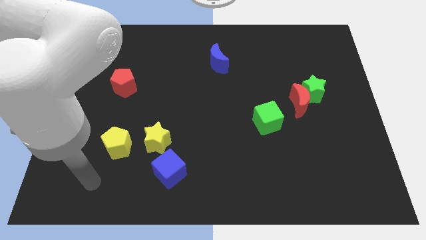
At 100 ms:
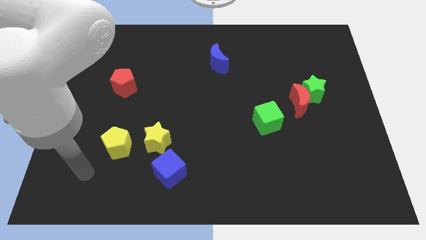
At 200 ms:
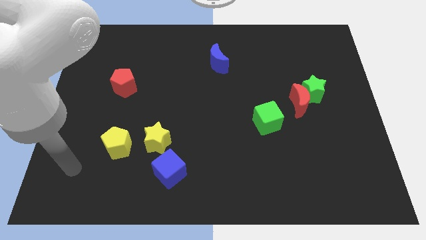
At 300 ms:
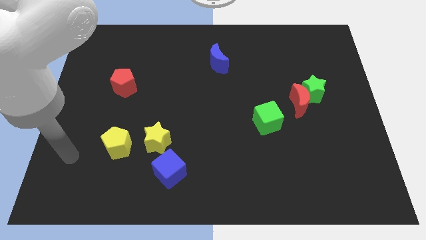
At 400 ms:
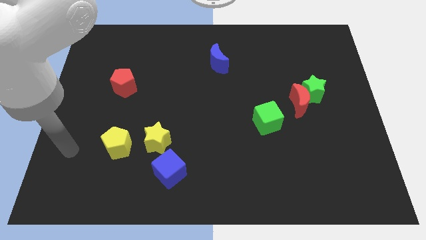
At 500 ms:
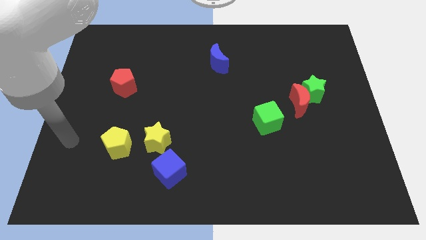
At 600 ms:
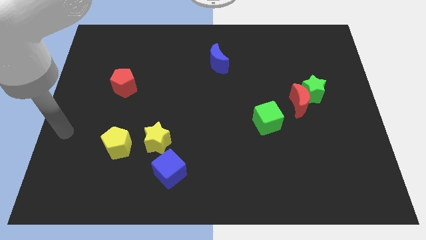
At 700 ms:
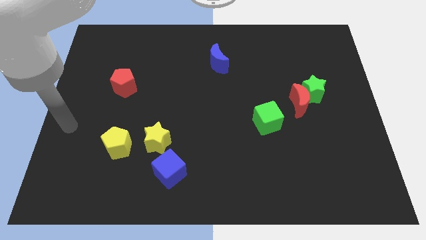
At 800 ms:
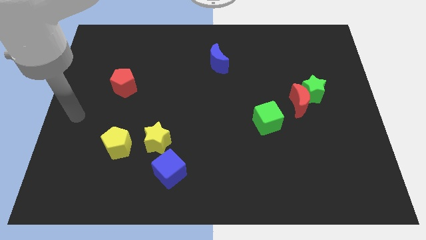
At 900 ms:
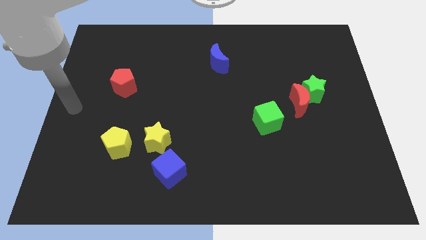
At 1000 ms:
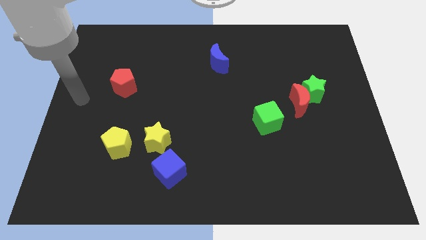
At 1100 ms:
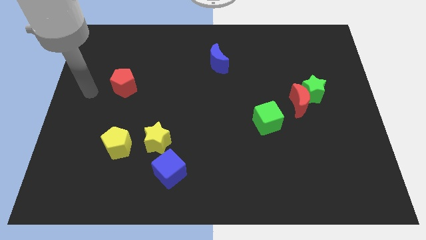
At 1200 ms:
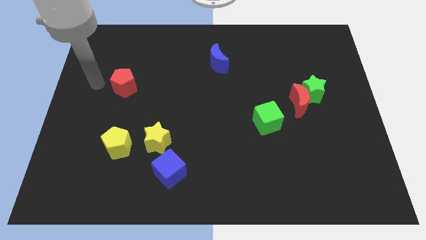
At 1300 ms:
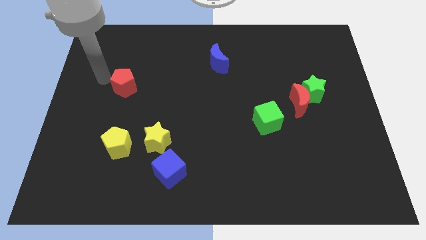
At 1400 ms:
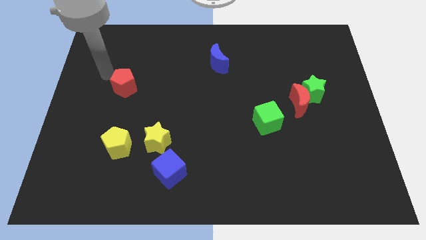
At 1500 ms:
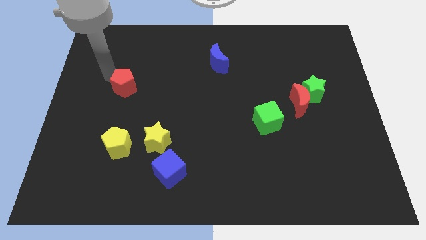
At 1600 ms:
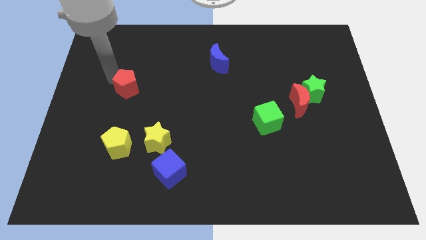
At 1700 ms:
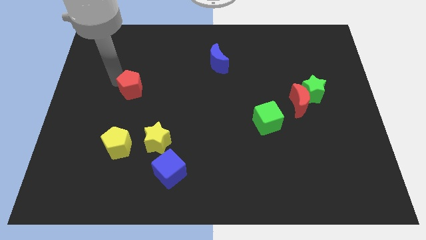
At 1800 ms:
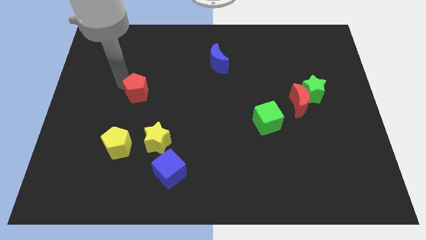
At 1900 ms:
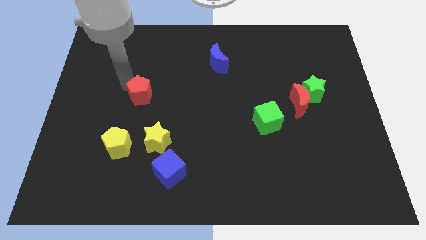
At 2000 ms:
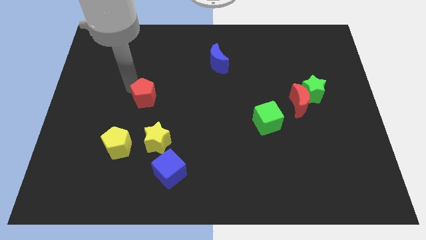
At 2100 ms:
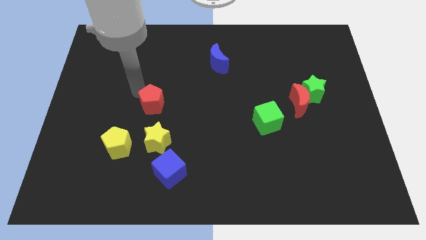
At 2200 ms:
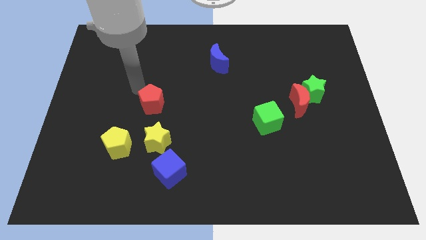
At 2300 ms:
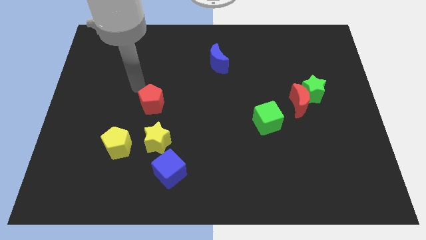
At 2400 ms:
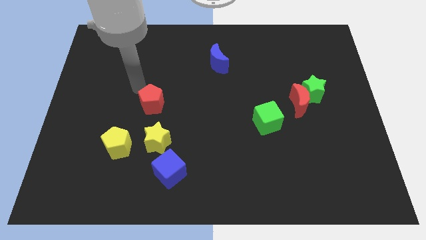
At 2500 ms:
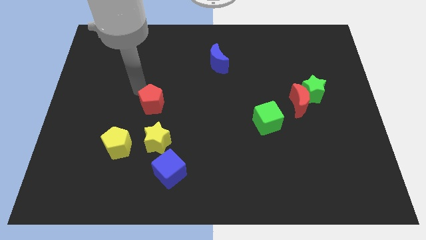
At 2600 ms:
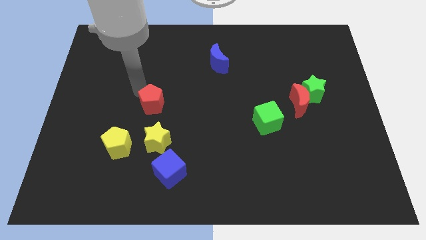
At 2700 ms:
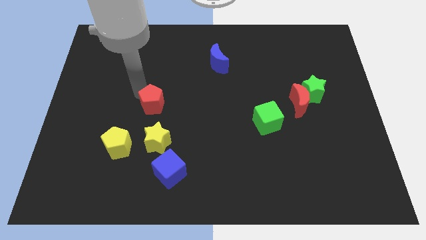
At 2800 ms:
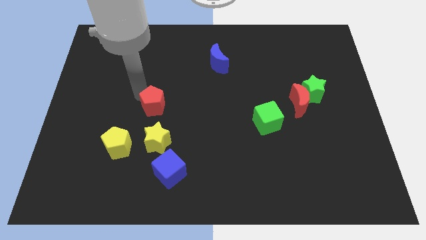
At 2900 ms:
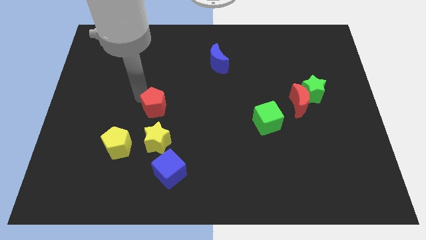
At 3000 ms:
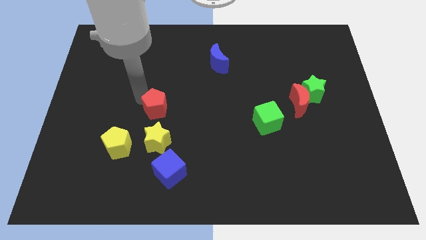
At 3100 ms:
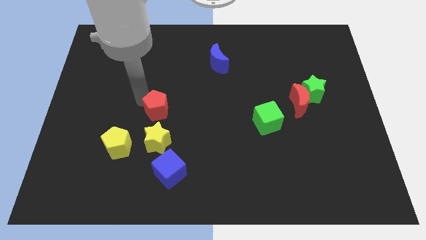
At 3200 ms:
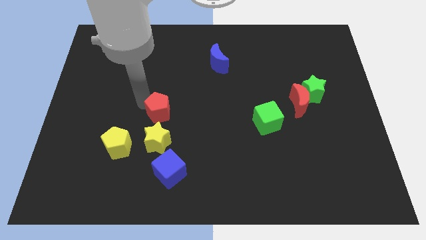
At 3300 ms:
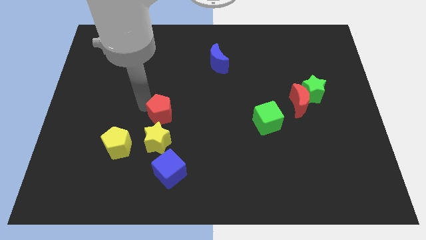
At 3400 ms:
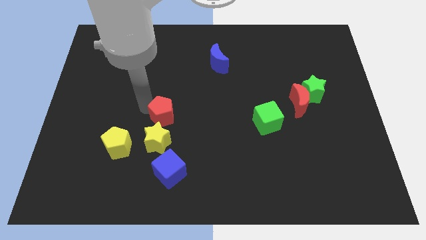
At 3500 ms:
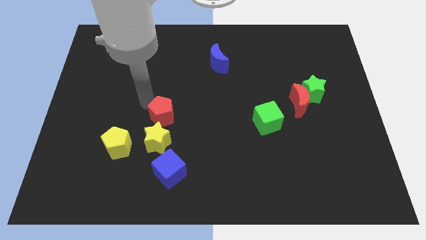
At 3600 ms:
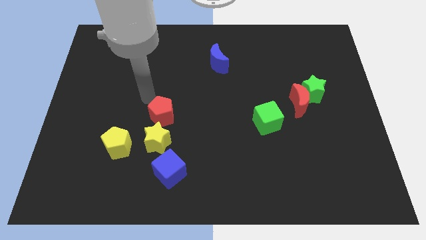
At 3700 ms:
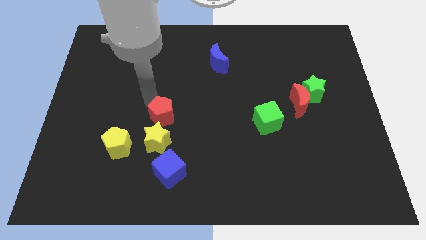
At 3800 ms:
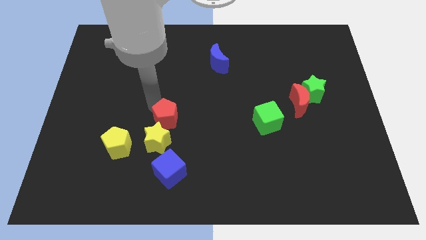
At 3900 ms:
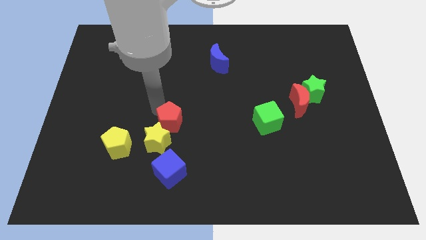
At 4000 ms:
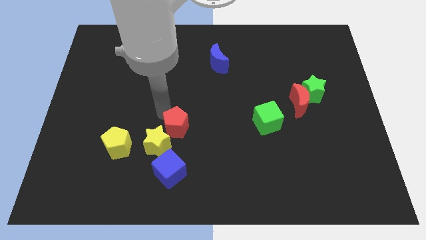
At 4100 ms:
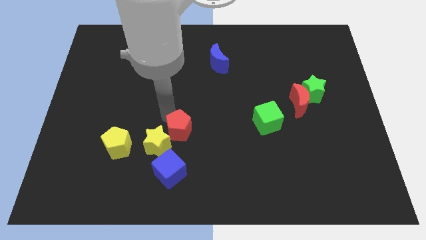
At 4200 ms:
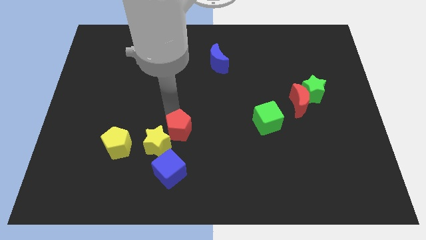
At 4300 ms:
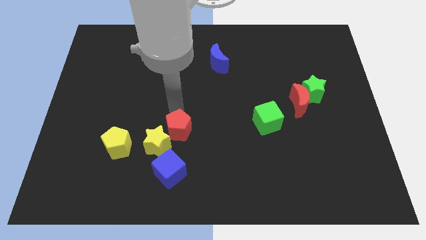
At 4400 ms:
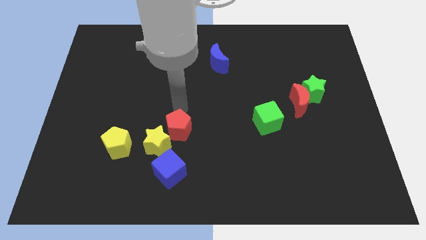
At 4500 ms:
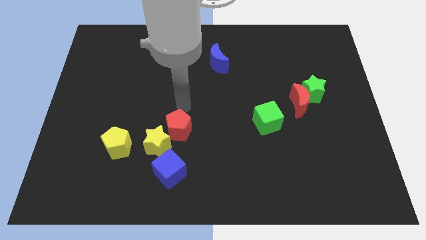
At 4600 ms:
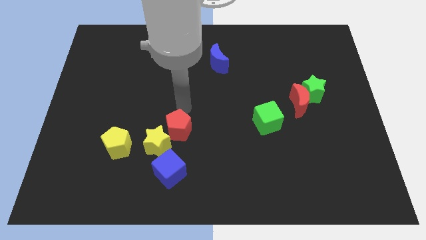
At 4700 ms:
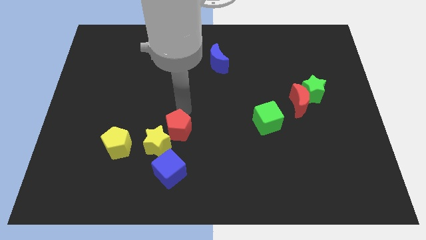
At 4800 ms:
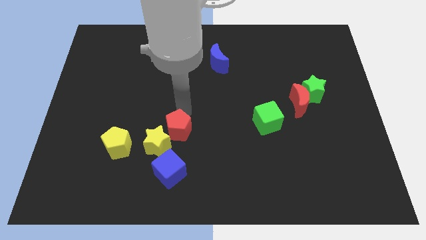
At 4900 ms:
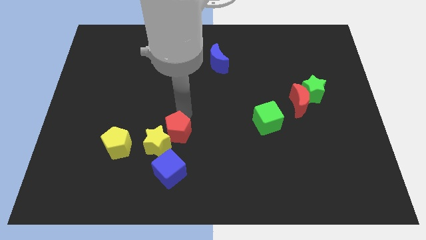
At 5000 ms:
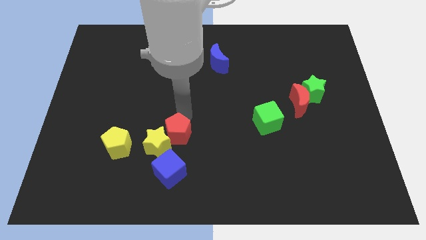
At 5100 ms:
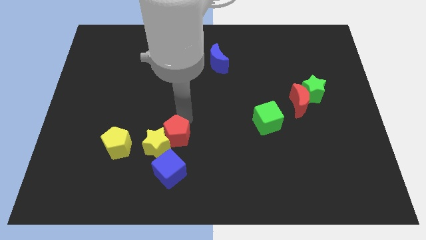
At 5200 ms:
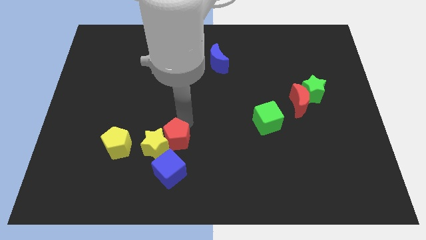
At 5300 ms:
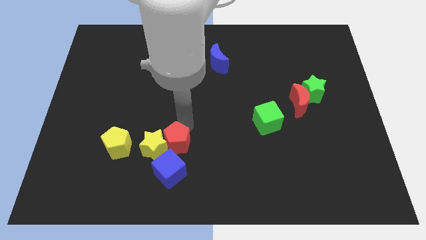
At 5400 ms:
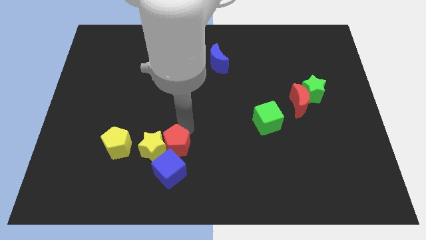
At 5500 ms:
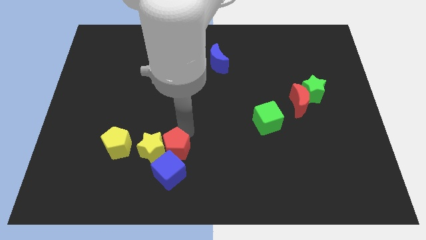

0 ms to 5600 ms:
slide the red pentagon close to the blue cube

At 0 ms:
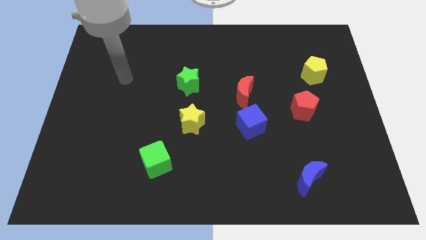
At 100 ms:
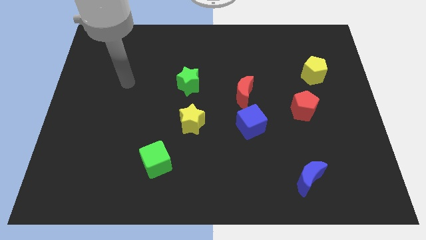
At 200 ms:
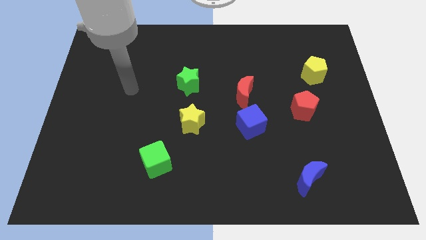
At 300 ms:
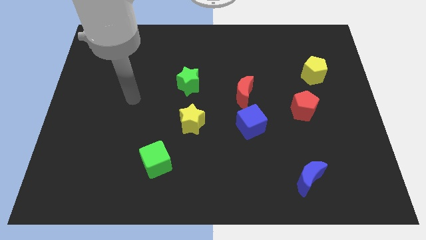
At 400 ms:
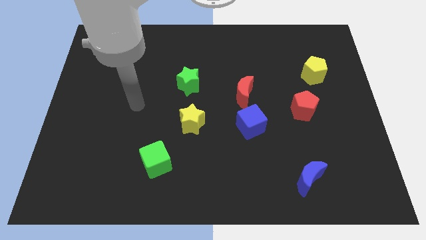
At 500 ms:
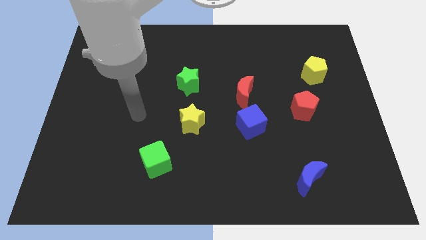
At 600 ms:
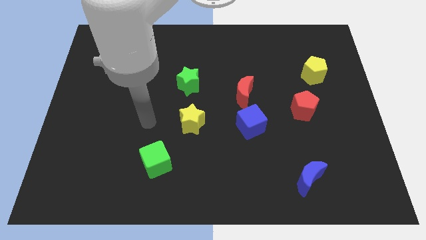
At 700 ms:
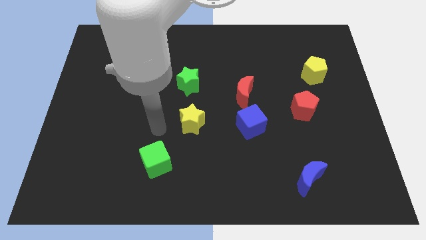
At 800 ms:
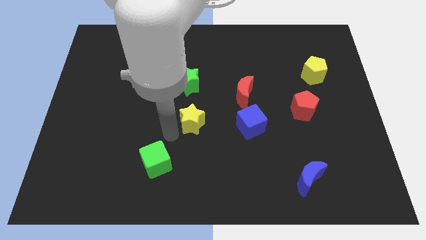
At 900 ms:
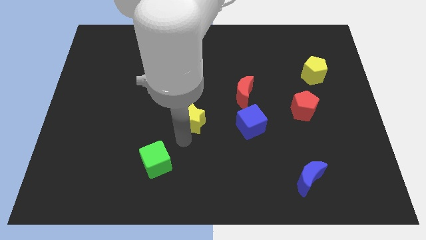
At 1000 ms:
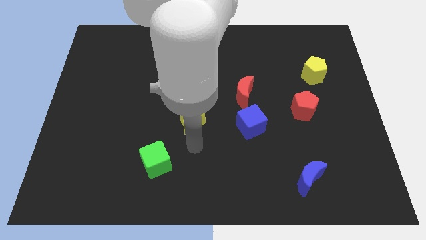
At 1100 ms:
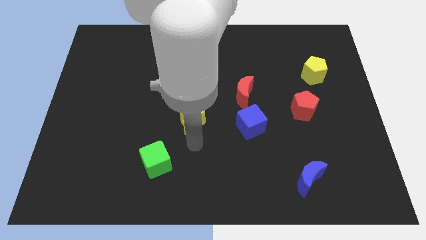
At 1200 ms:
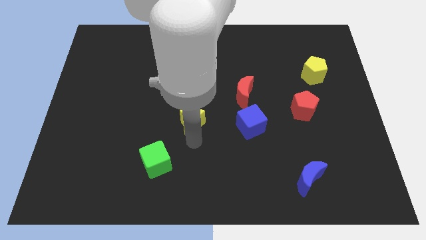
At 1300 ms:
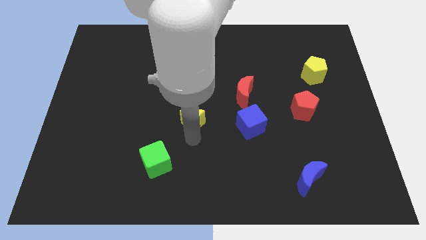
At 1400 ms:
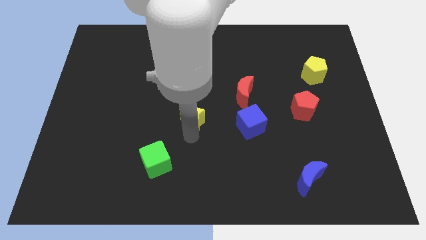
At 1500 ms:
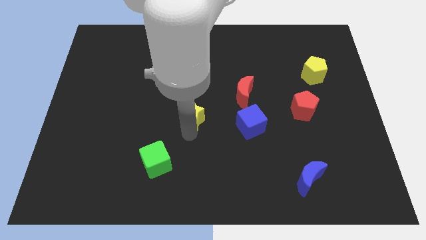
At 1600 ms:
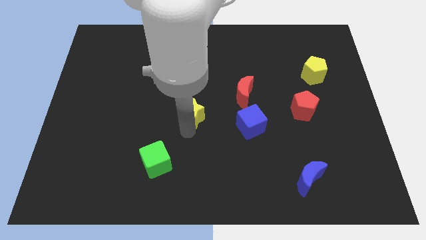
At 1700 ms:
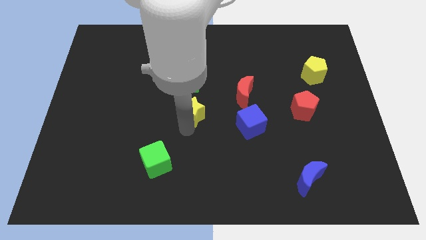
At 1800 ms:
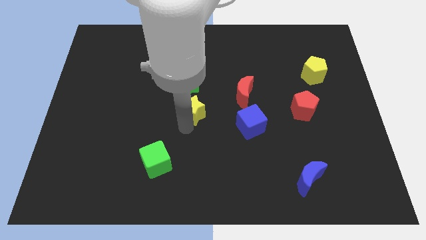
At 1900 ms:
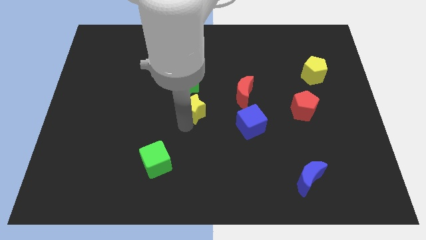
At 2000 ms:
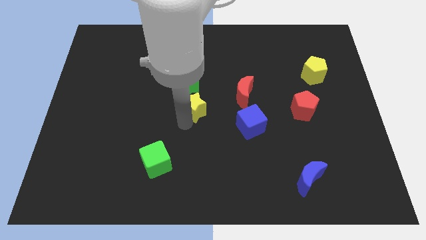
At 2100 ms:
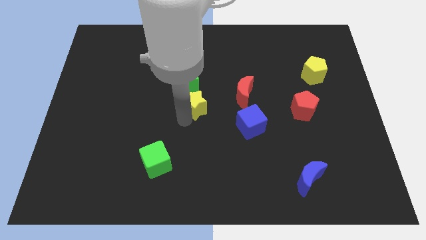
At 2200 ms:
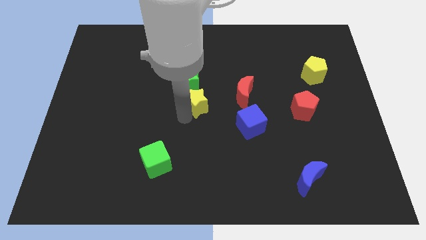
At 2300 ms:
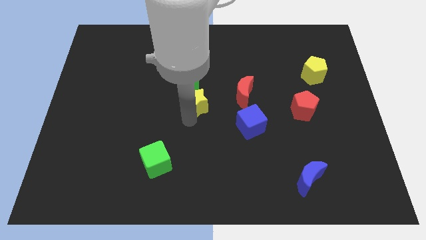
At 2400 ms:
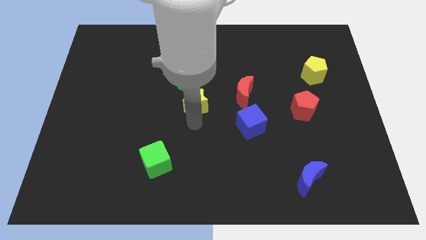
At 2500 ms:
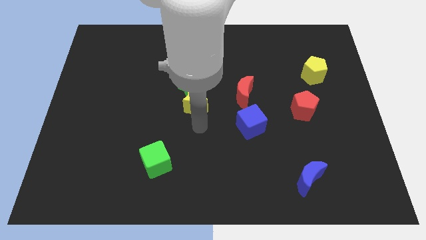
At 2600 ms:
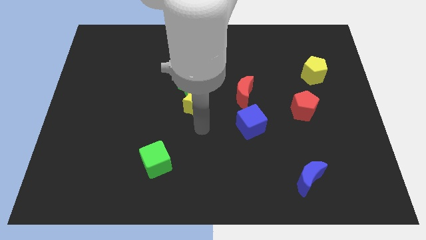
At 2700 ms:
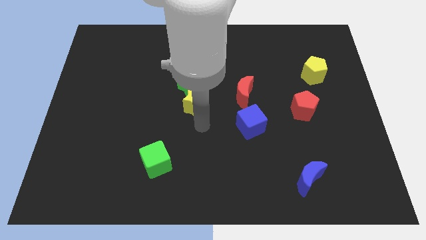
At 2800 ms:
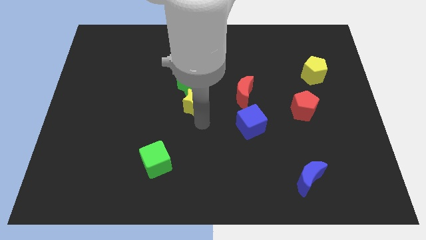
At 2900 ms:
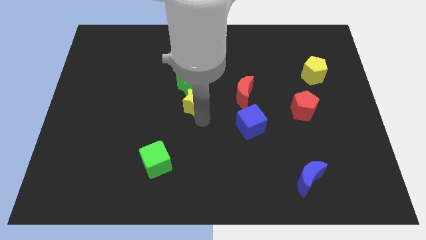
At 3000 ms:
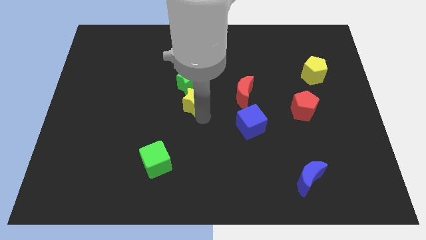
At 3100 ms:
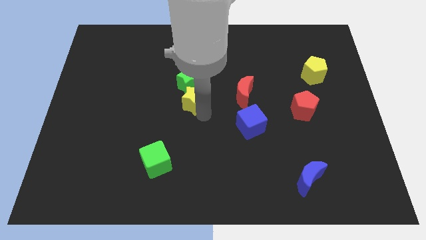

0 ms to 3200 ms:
put the yellow star next to the green star

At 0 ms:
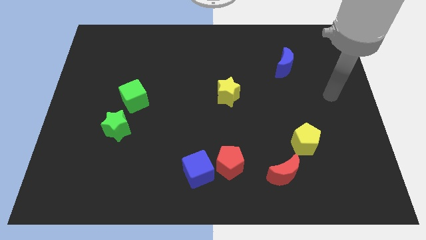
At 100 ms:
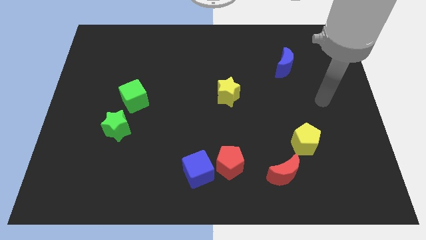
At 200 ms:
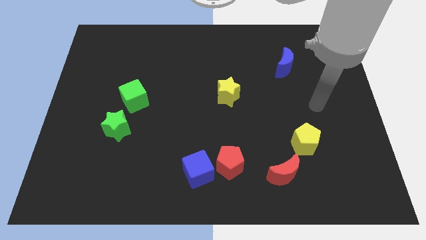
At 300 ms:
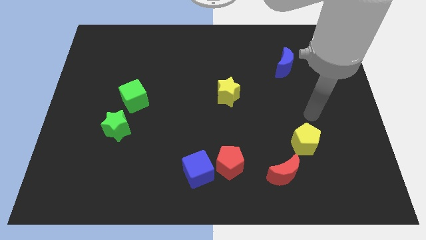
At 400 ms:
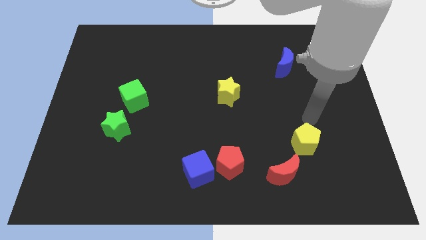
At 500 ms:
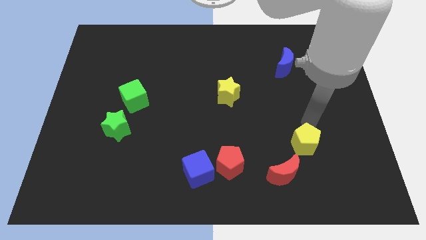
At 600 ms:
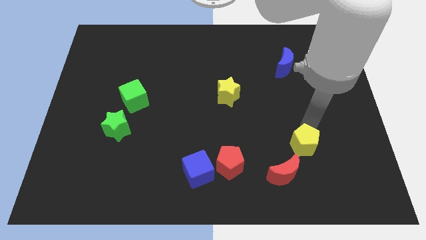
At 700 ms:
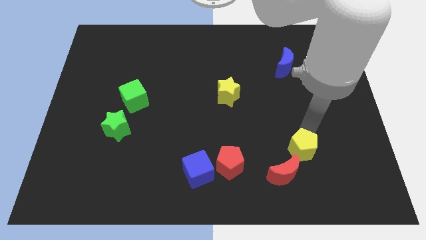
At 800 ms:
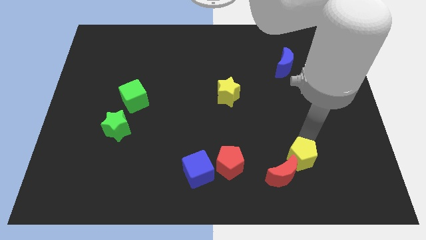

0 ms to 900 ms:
put the yellow pentagon close to the red moon
